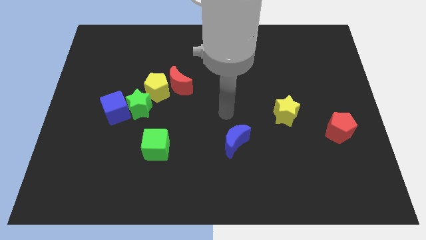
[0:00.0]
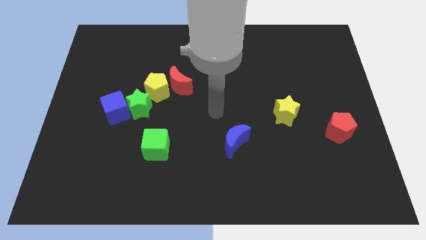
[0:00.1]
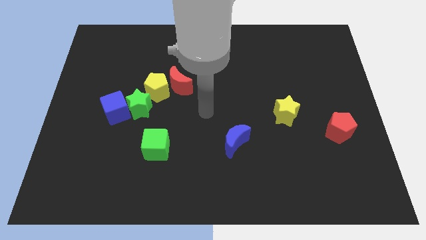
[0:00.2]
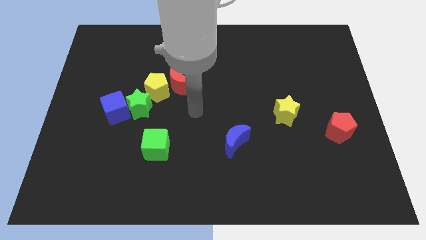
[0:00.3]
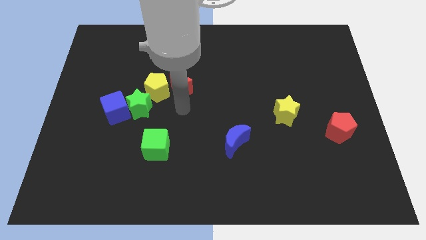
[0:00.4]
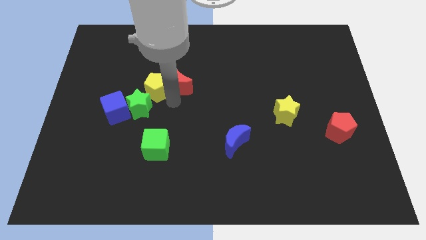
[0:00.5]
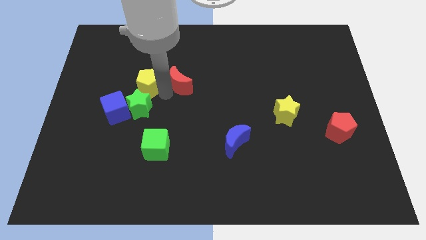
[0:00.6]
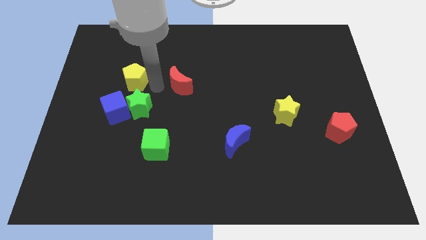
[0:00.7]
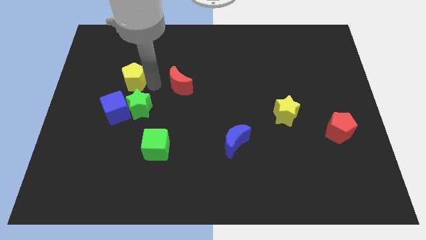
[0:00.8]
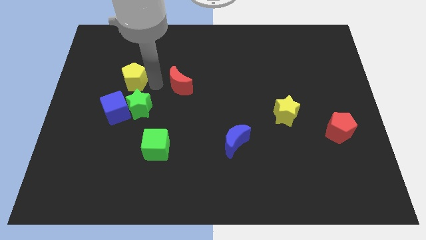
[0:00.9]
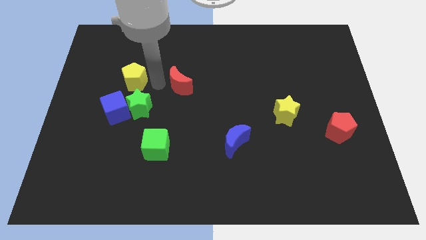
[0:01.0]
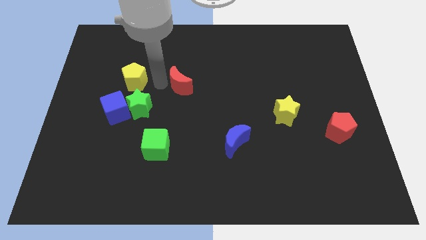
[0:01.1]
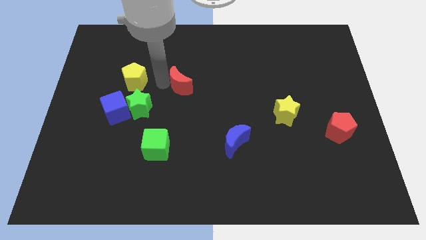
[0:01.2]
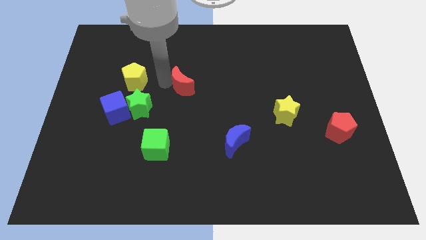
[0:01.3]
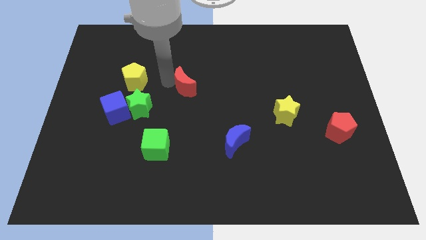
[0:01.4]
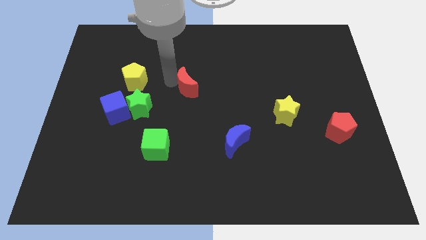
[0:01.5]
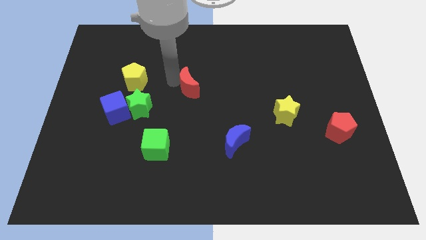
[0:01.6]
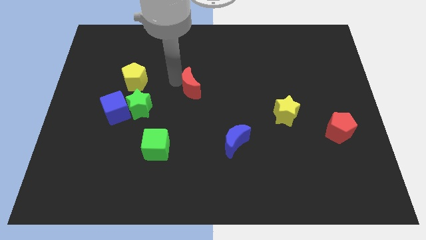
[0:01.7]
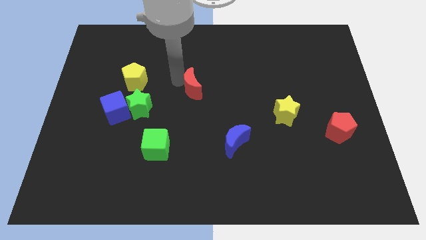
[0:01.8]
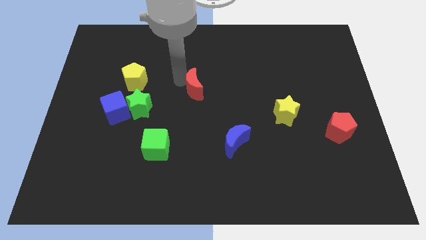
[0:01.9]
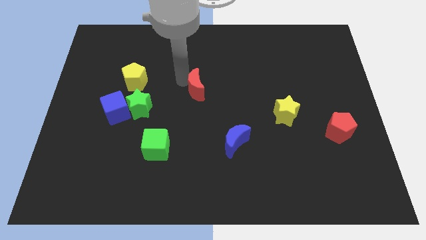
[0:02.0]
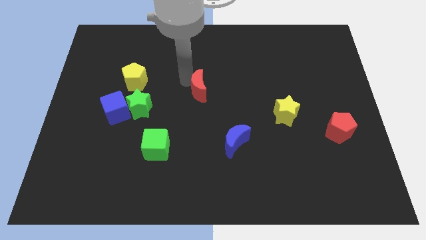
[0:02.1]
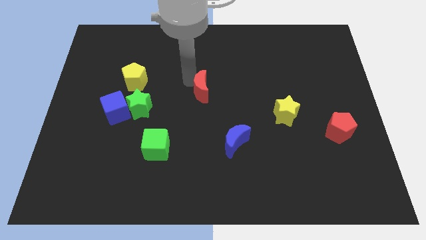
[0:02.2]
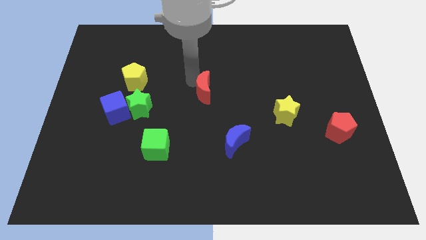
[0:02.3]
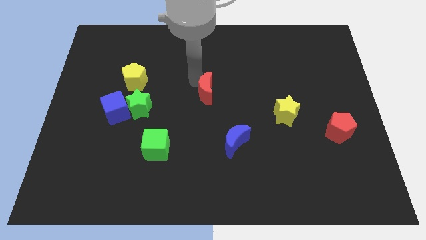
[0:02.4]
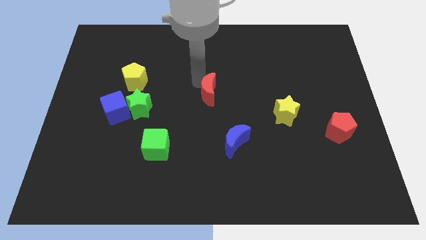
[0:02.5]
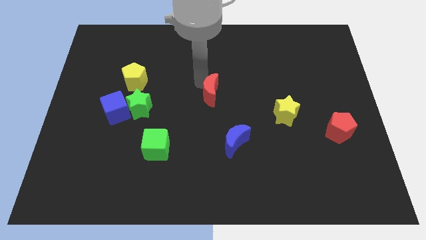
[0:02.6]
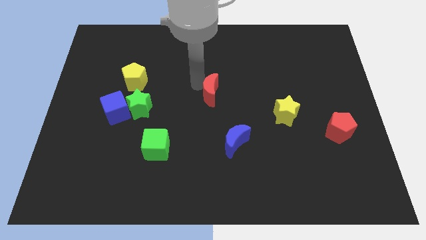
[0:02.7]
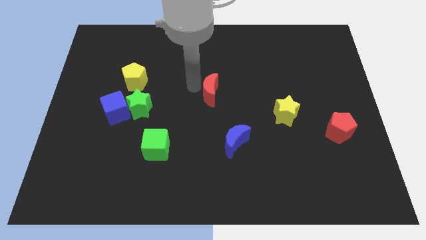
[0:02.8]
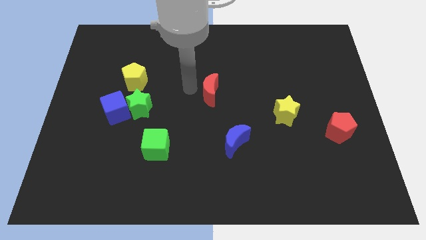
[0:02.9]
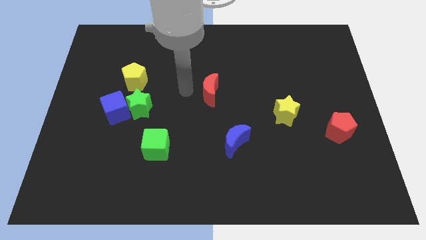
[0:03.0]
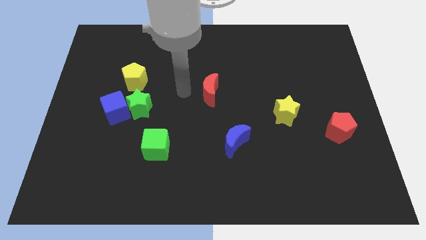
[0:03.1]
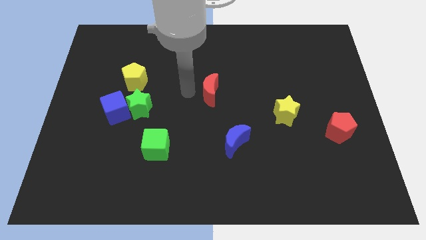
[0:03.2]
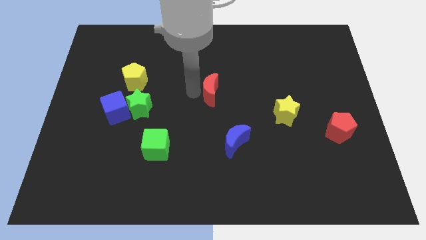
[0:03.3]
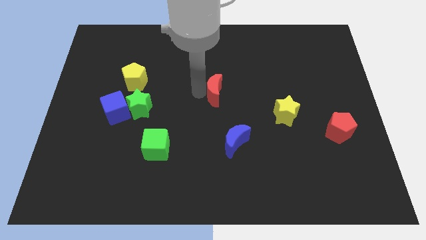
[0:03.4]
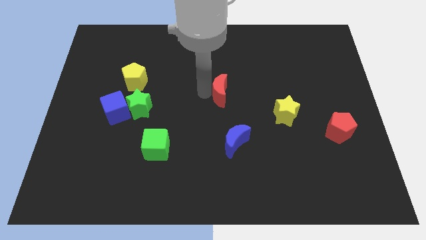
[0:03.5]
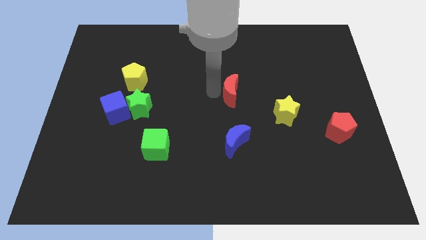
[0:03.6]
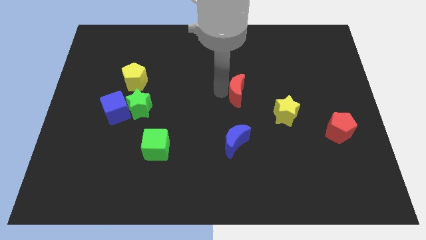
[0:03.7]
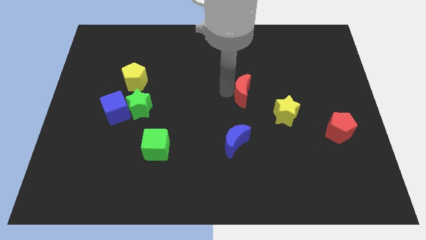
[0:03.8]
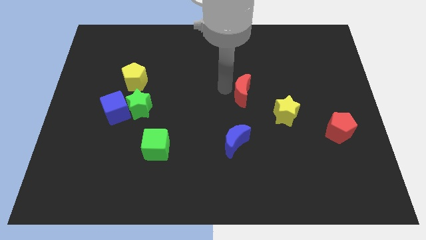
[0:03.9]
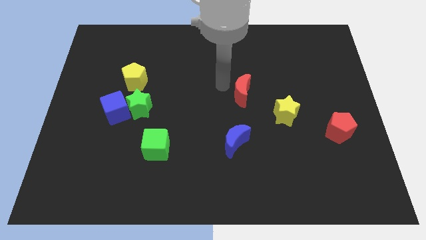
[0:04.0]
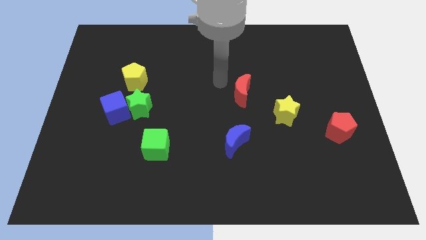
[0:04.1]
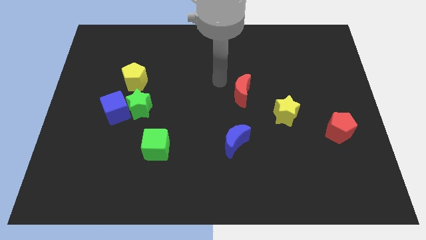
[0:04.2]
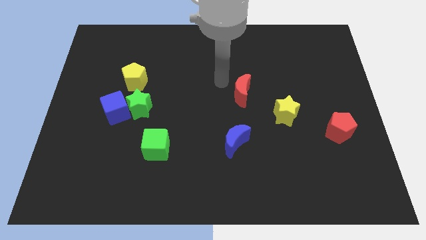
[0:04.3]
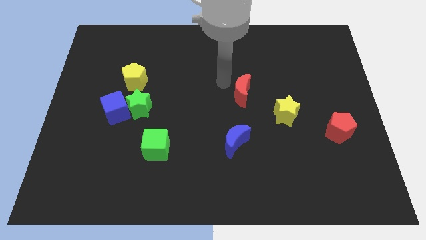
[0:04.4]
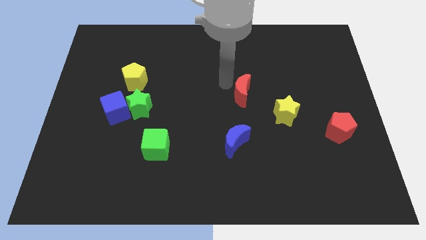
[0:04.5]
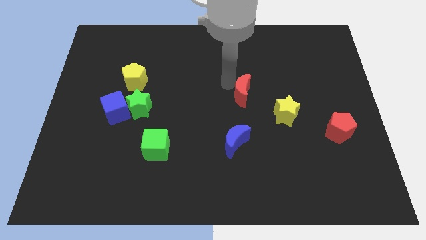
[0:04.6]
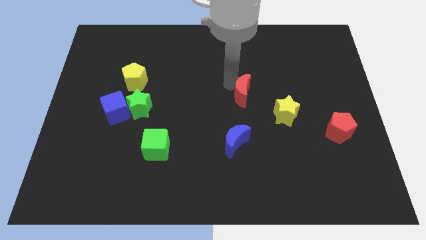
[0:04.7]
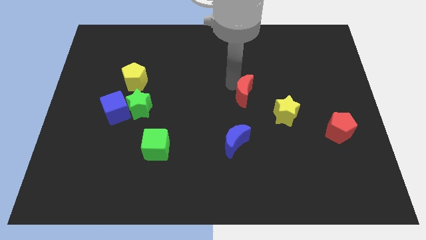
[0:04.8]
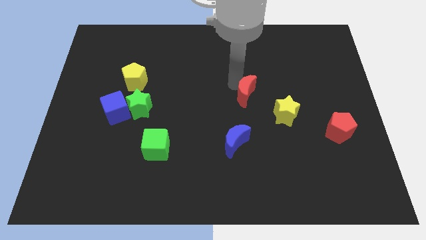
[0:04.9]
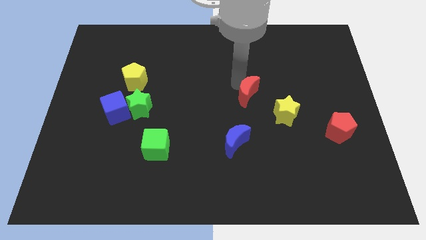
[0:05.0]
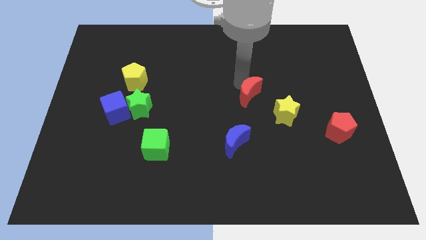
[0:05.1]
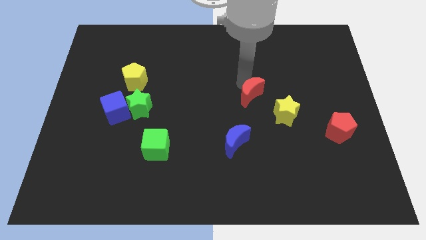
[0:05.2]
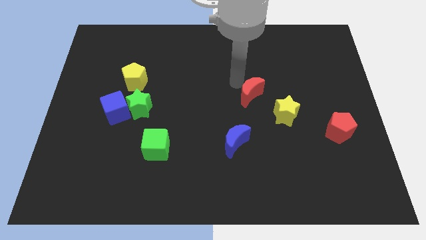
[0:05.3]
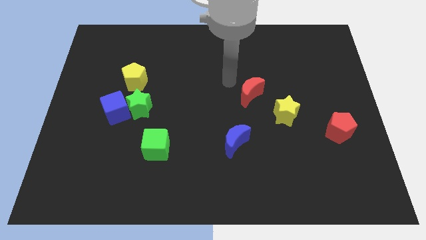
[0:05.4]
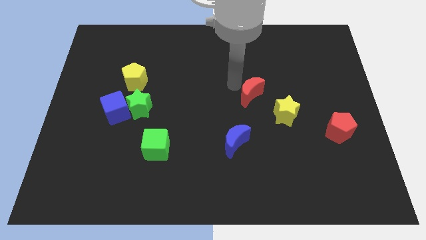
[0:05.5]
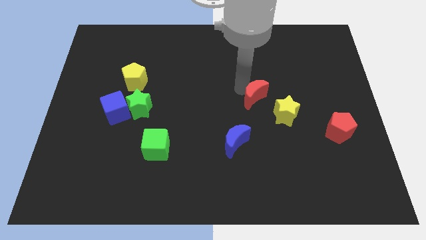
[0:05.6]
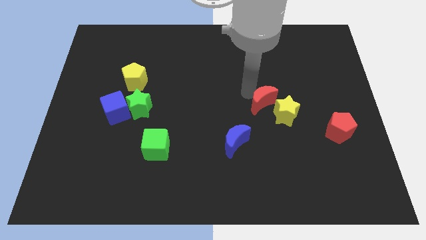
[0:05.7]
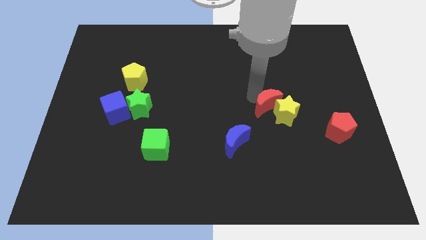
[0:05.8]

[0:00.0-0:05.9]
put the red moon towards the yellow star
